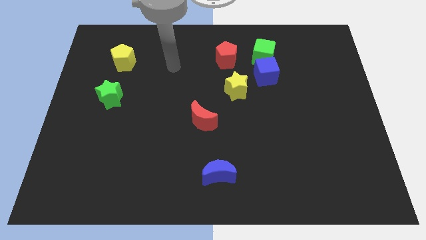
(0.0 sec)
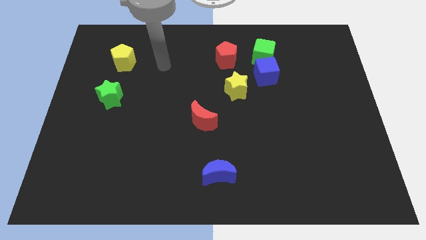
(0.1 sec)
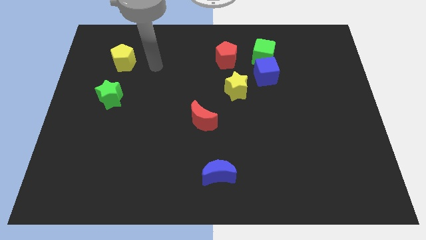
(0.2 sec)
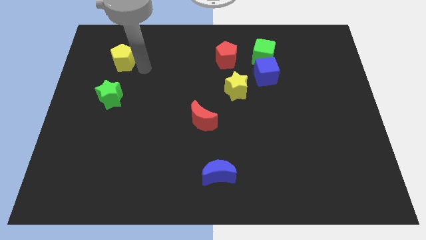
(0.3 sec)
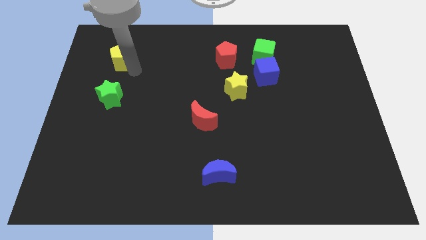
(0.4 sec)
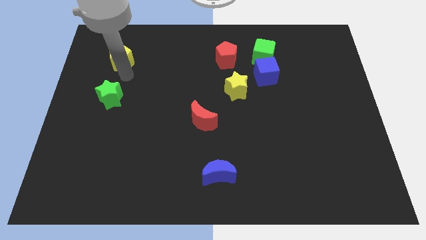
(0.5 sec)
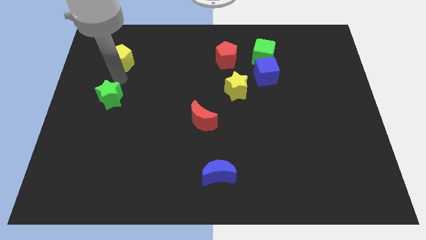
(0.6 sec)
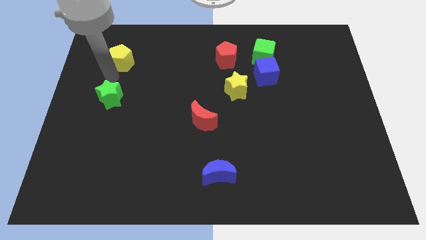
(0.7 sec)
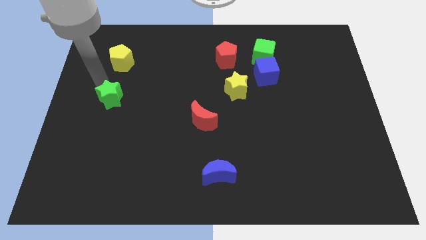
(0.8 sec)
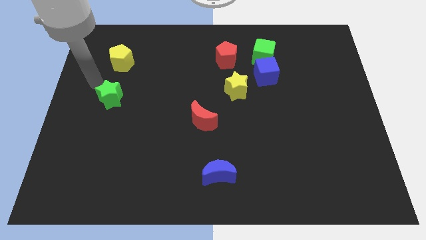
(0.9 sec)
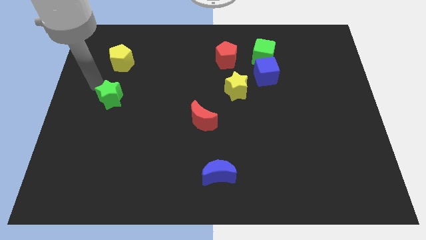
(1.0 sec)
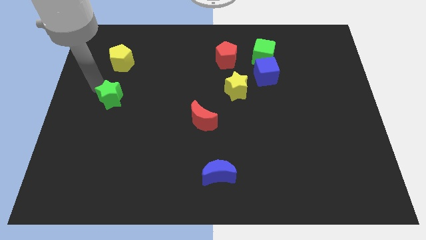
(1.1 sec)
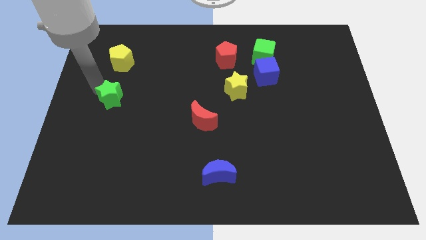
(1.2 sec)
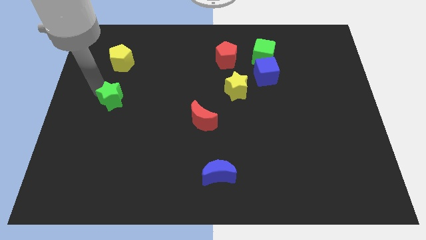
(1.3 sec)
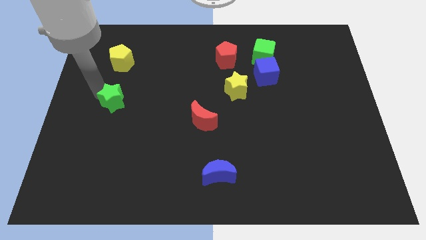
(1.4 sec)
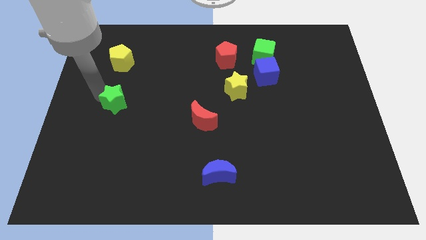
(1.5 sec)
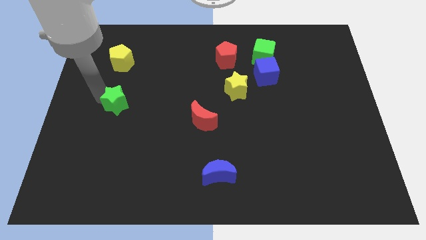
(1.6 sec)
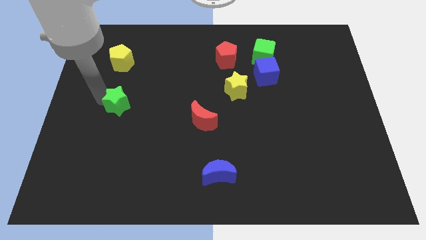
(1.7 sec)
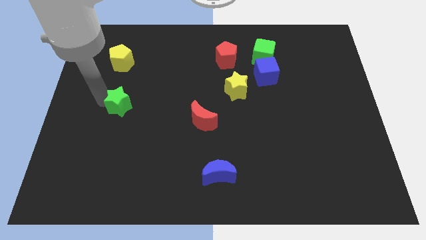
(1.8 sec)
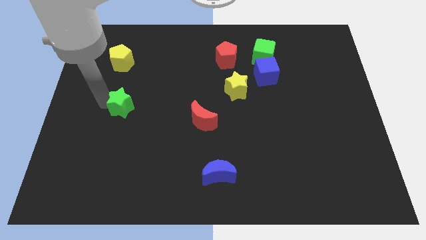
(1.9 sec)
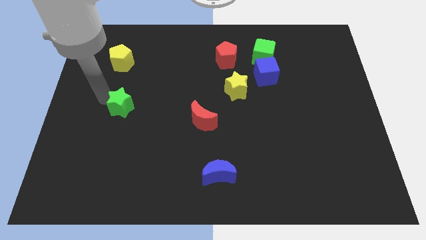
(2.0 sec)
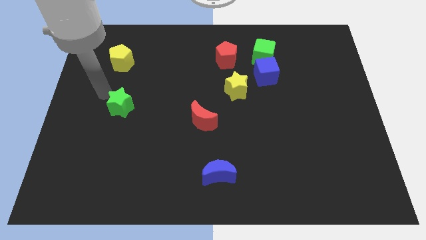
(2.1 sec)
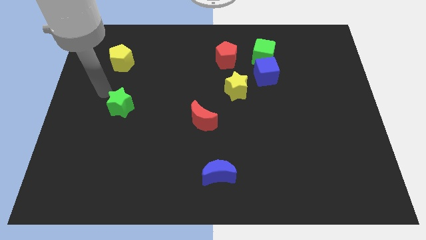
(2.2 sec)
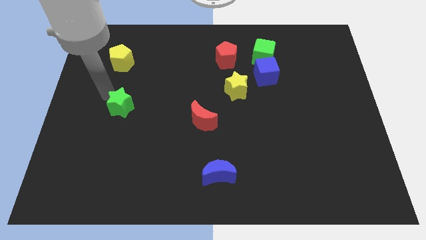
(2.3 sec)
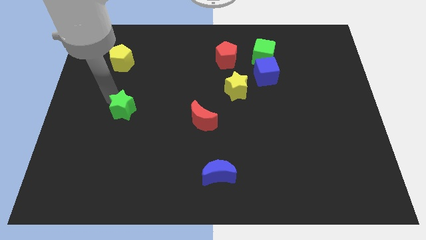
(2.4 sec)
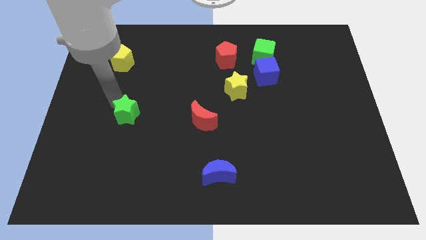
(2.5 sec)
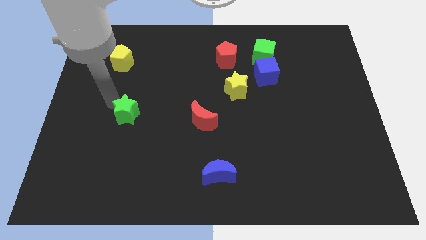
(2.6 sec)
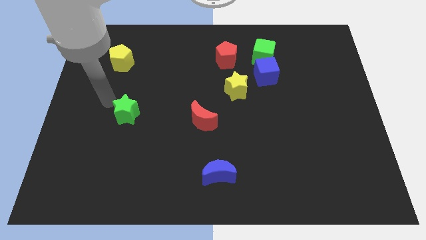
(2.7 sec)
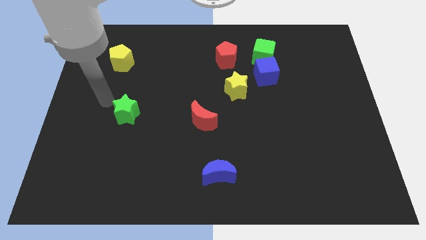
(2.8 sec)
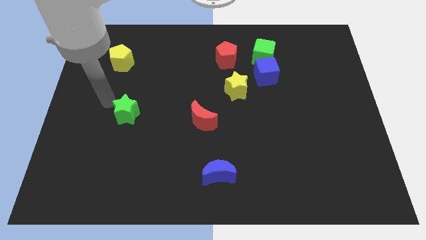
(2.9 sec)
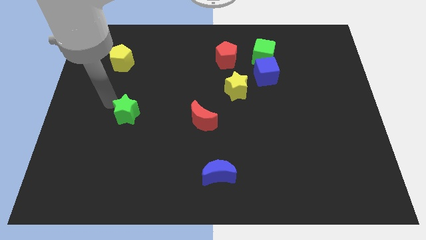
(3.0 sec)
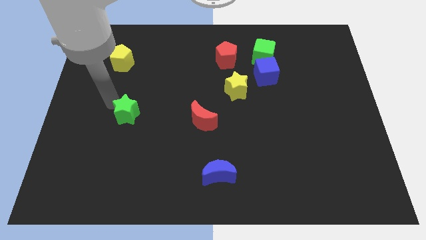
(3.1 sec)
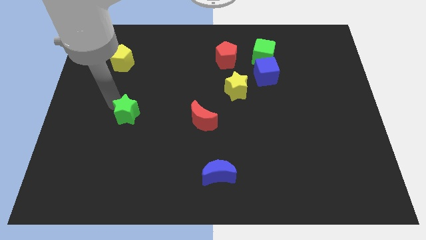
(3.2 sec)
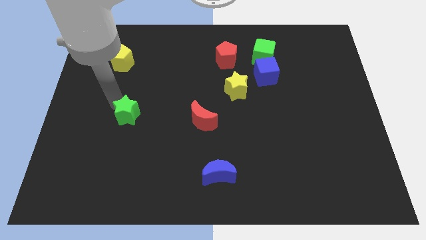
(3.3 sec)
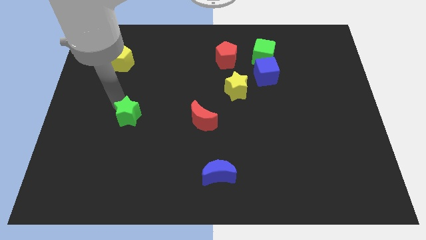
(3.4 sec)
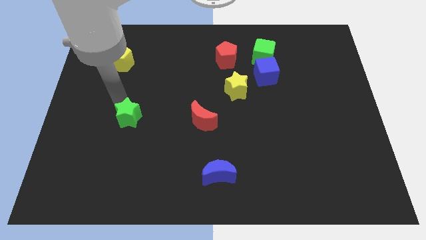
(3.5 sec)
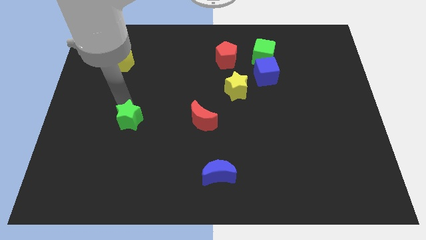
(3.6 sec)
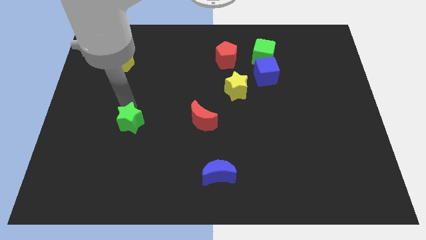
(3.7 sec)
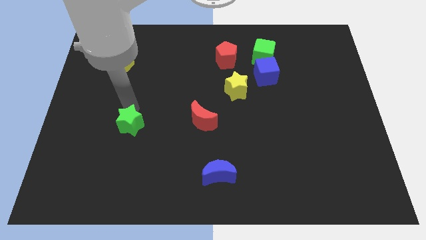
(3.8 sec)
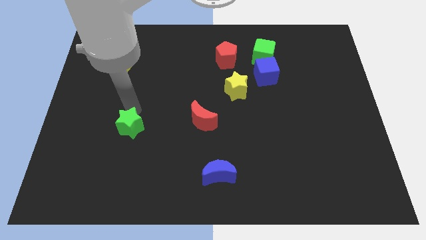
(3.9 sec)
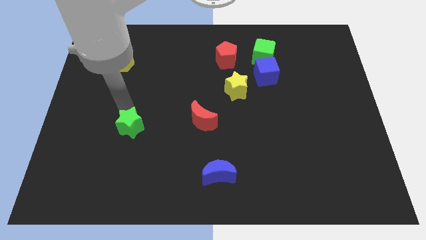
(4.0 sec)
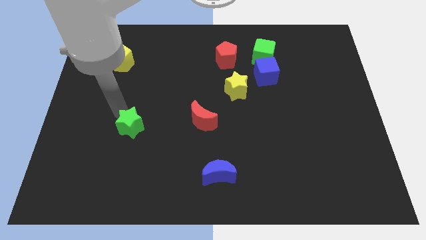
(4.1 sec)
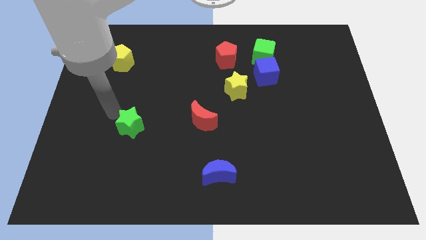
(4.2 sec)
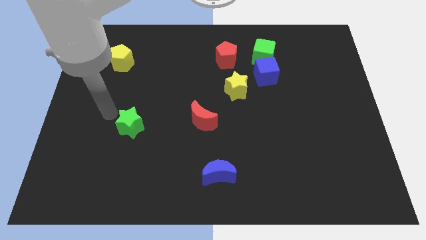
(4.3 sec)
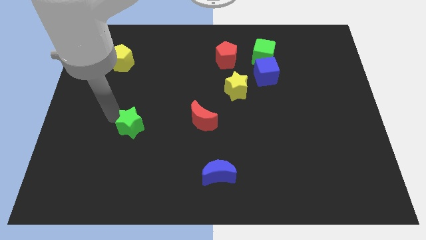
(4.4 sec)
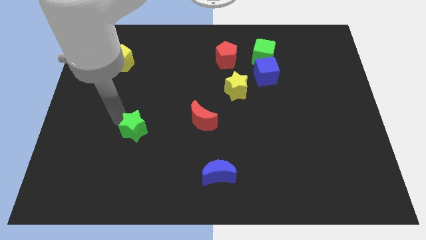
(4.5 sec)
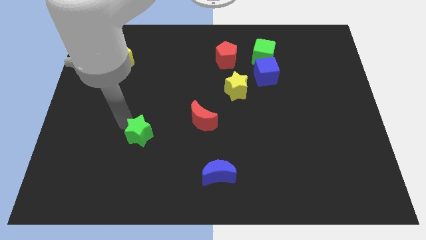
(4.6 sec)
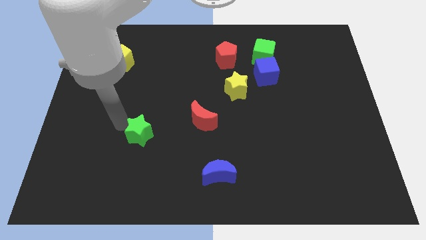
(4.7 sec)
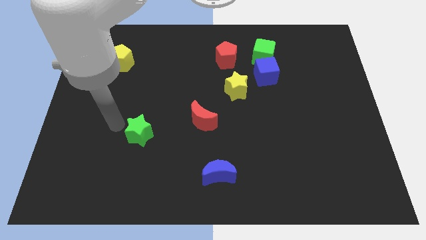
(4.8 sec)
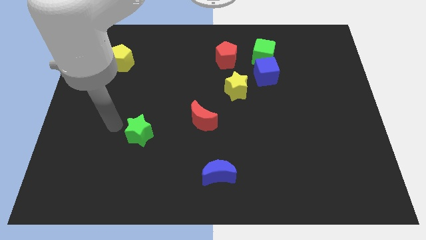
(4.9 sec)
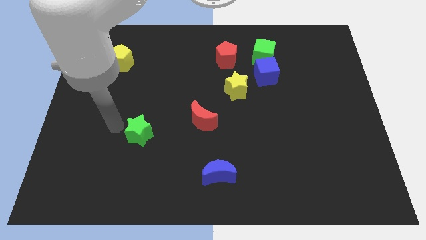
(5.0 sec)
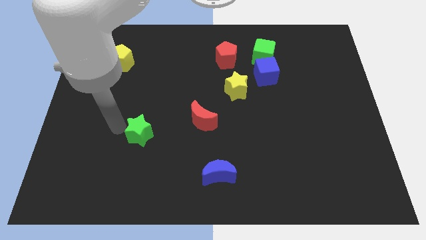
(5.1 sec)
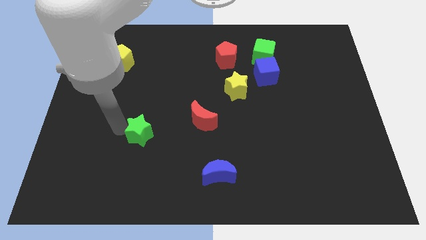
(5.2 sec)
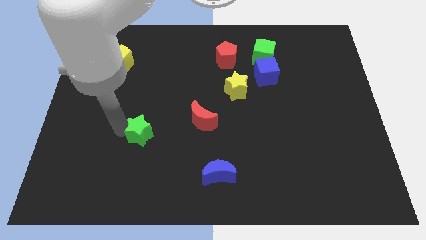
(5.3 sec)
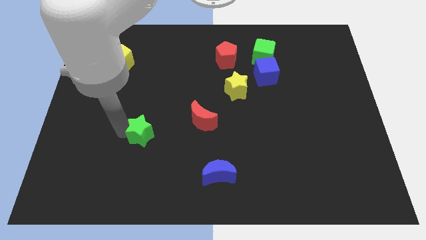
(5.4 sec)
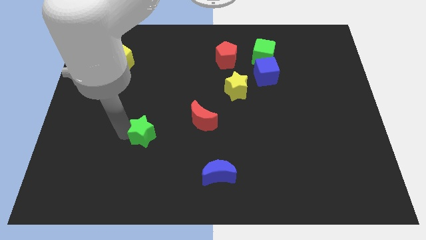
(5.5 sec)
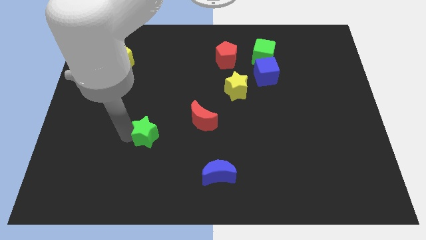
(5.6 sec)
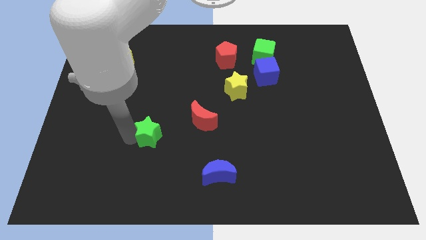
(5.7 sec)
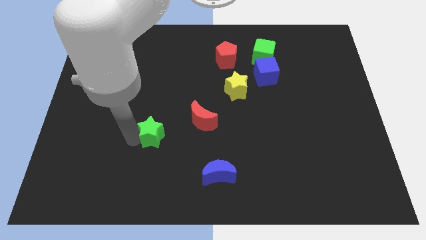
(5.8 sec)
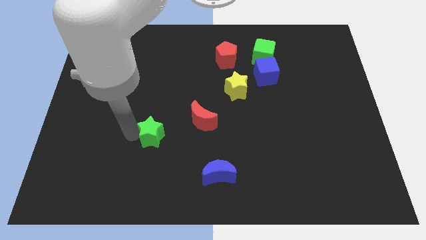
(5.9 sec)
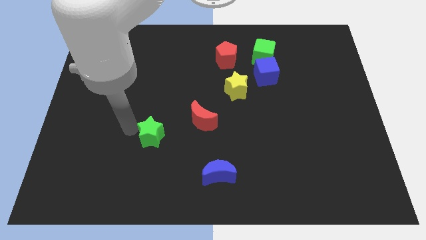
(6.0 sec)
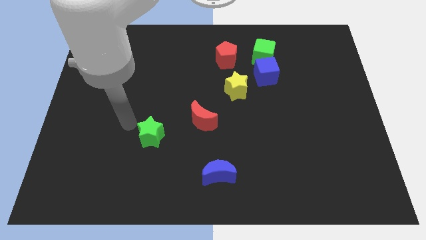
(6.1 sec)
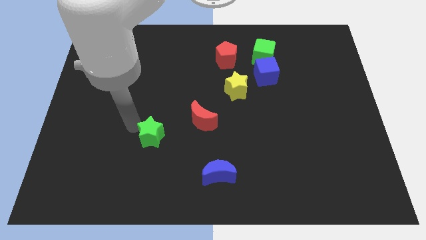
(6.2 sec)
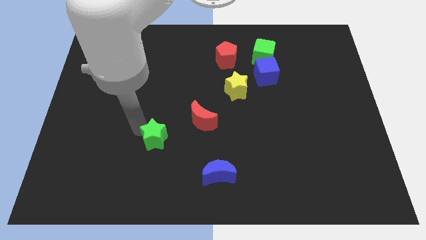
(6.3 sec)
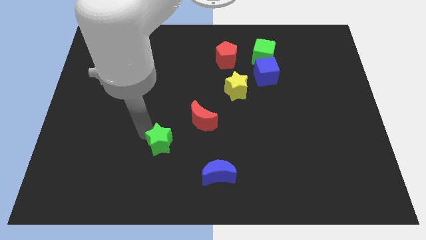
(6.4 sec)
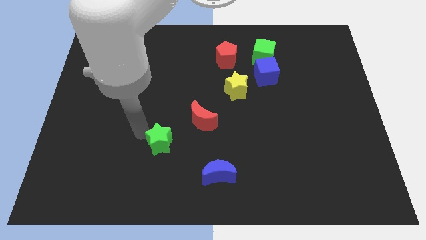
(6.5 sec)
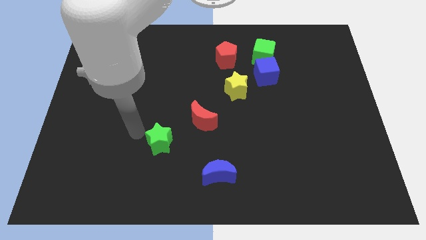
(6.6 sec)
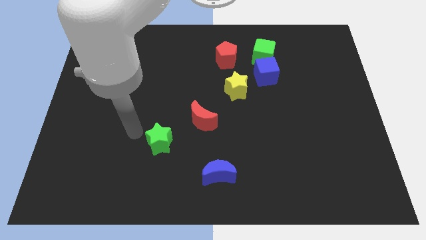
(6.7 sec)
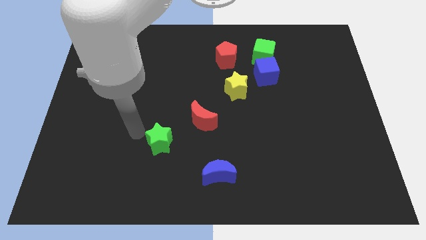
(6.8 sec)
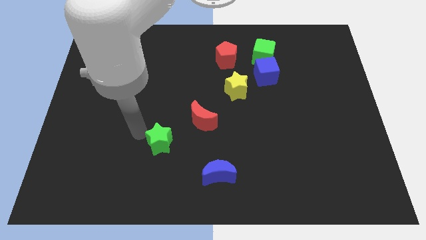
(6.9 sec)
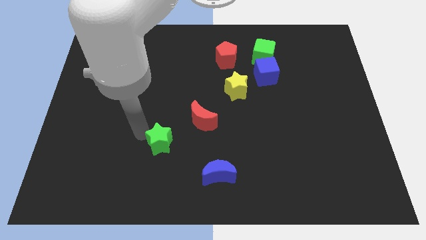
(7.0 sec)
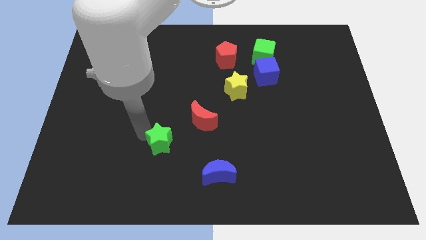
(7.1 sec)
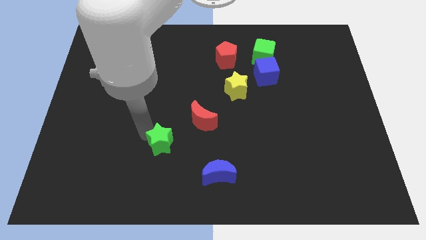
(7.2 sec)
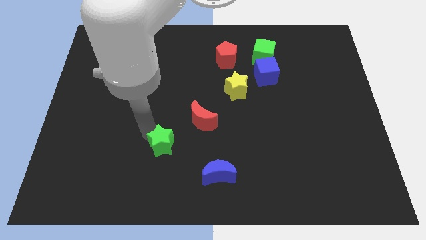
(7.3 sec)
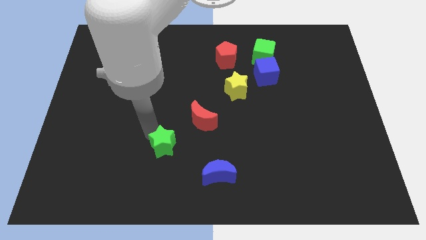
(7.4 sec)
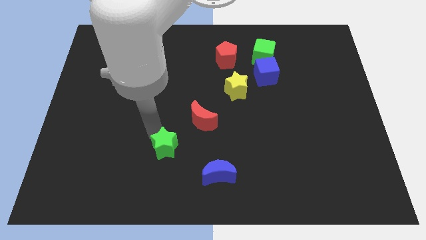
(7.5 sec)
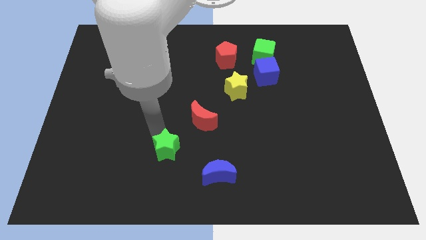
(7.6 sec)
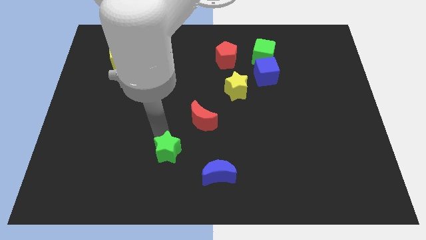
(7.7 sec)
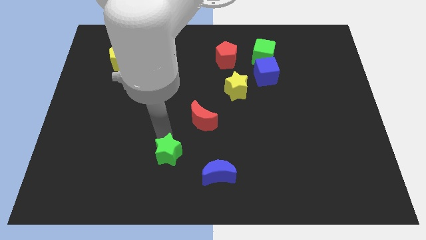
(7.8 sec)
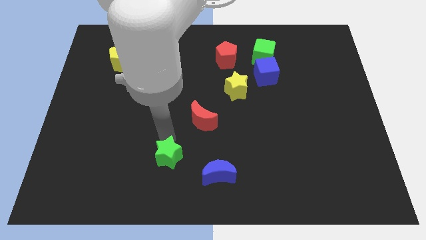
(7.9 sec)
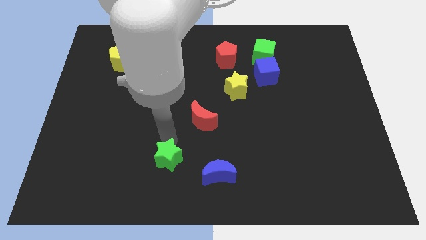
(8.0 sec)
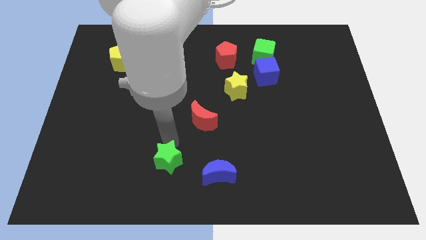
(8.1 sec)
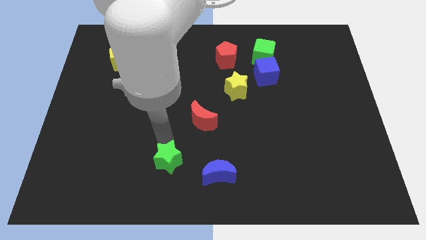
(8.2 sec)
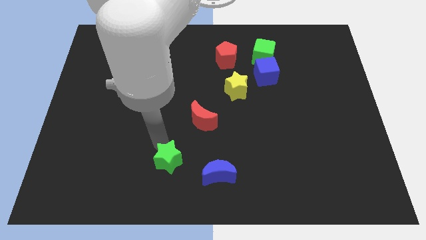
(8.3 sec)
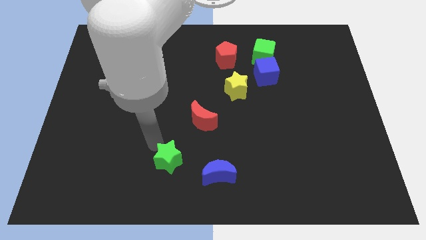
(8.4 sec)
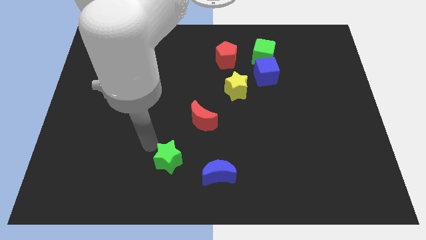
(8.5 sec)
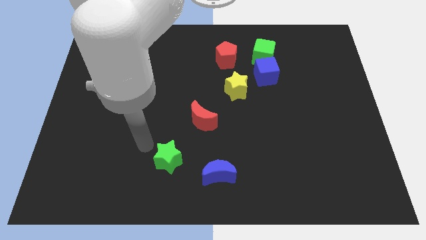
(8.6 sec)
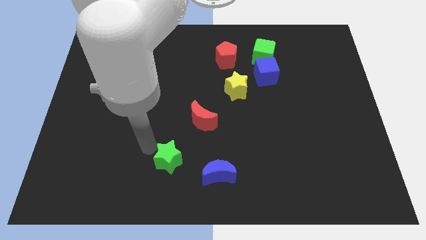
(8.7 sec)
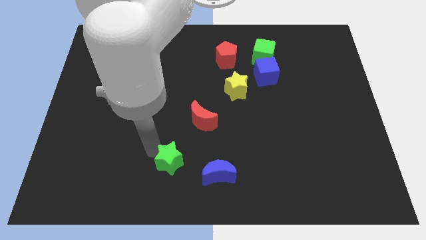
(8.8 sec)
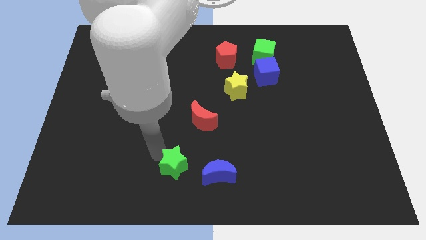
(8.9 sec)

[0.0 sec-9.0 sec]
put the green star to the bottom
